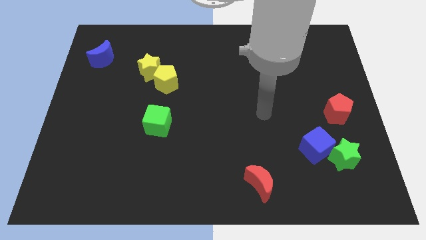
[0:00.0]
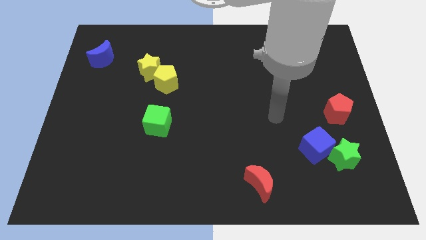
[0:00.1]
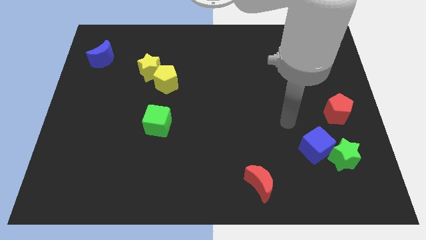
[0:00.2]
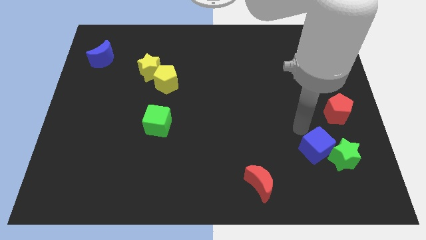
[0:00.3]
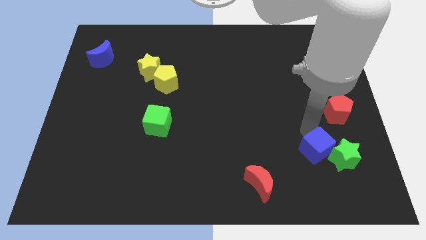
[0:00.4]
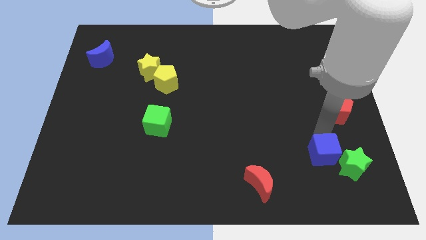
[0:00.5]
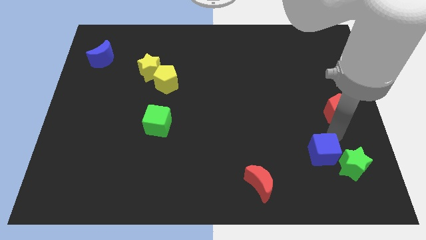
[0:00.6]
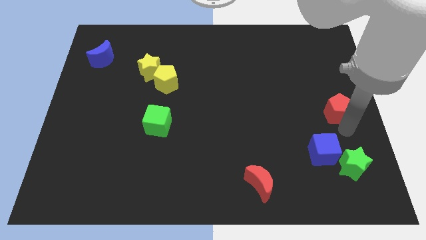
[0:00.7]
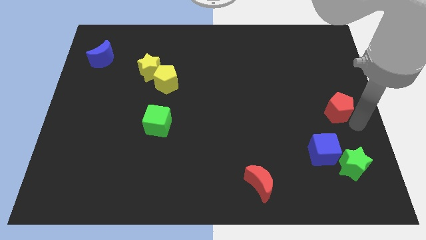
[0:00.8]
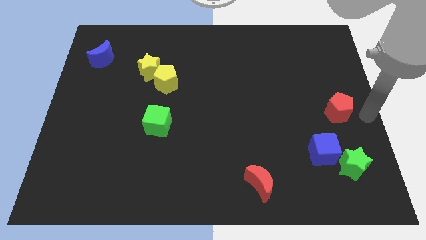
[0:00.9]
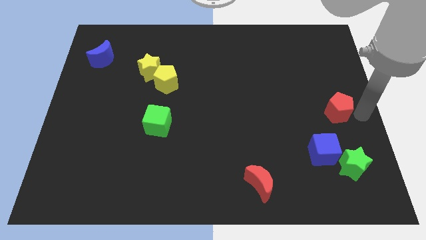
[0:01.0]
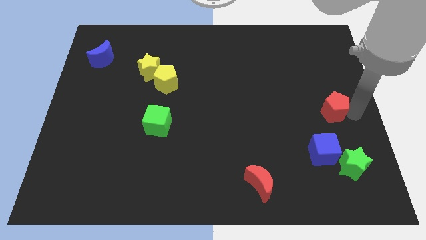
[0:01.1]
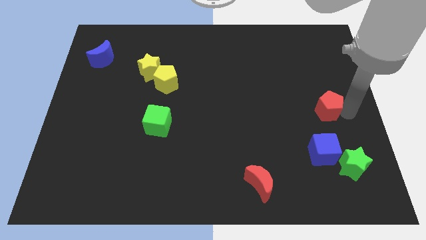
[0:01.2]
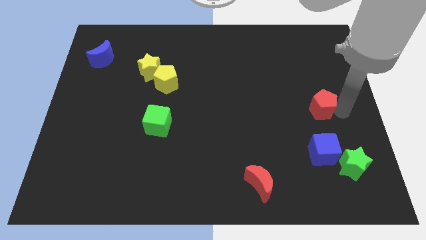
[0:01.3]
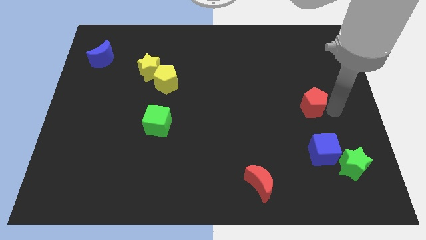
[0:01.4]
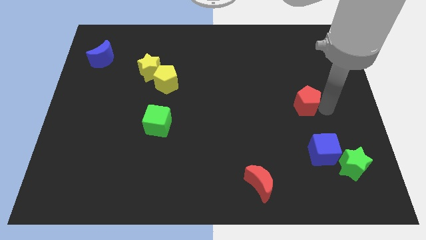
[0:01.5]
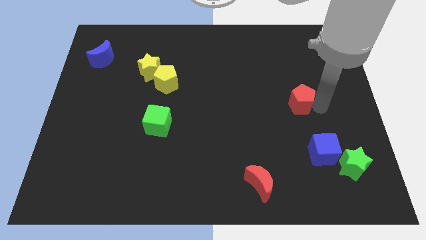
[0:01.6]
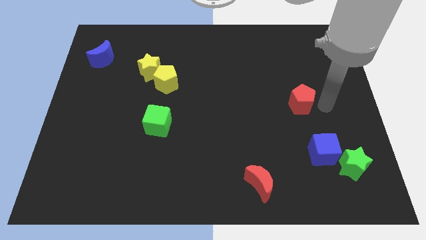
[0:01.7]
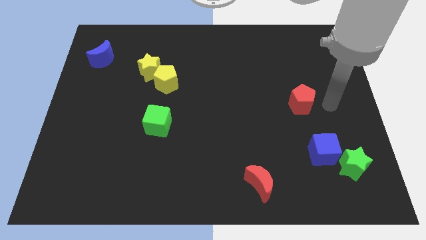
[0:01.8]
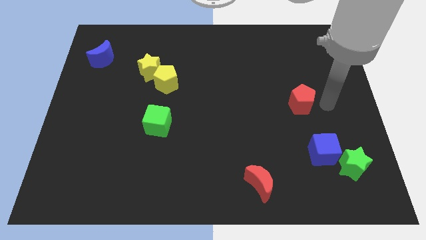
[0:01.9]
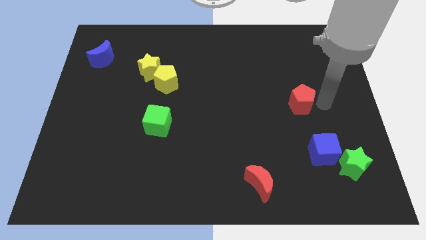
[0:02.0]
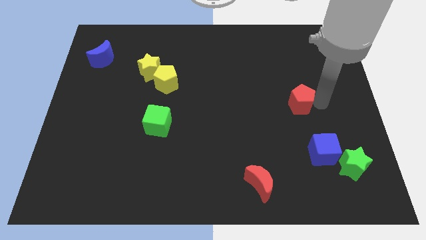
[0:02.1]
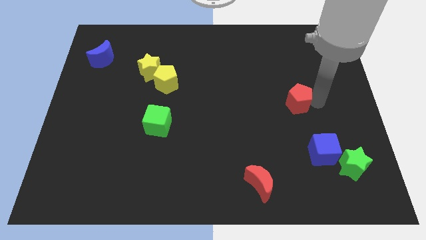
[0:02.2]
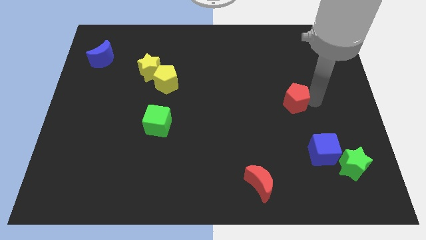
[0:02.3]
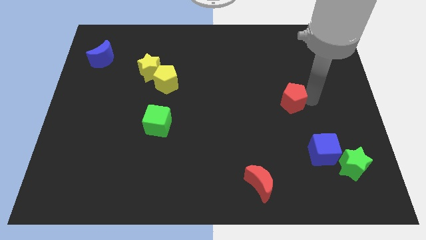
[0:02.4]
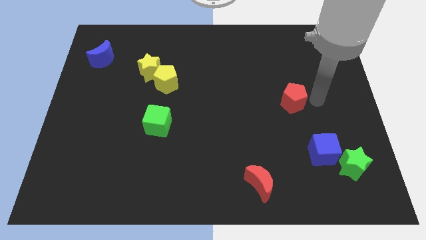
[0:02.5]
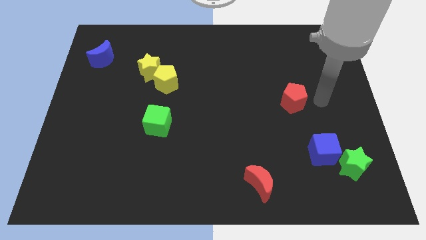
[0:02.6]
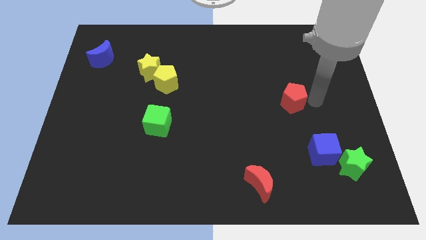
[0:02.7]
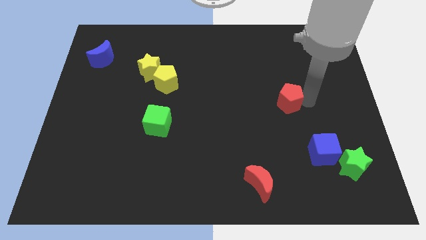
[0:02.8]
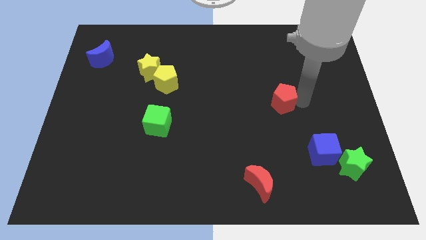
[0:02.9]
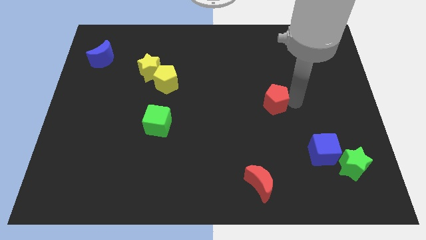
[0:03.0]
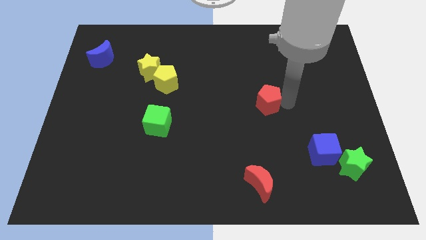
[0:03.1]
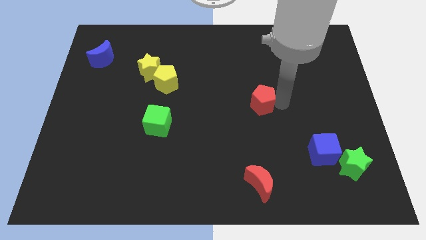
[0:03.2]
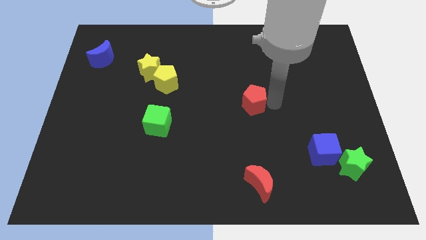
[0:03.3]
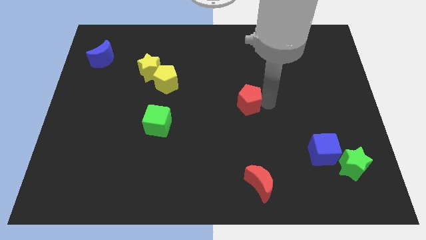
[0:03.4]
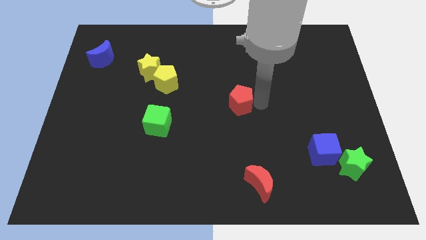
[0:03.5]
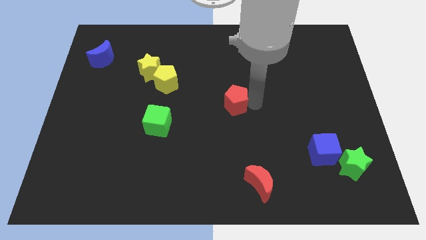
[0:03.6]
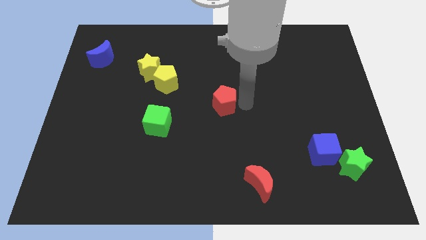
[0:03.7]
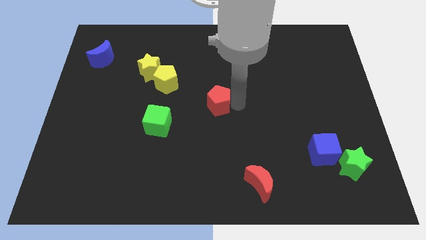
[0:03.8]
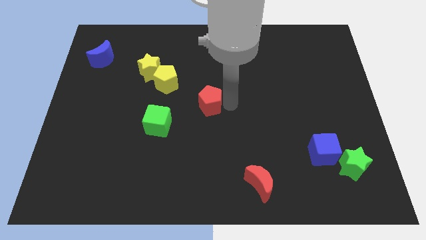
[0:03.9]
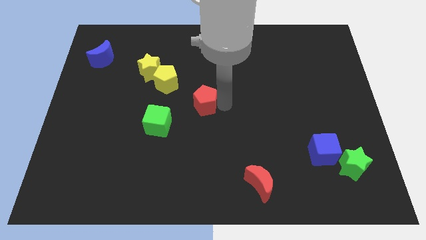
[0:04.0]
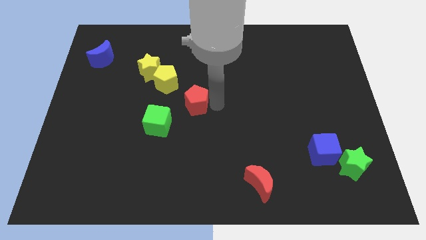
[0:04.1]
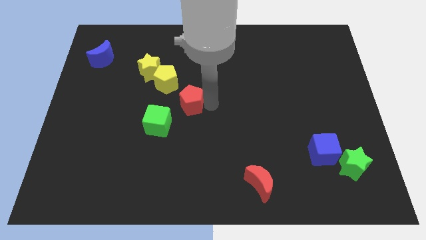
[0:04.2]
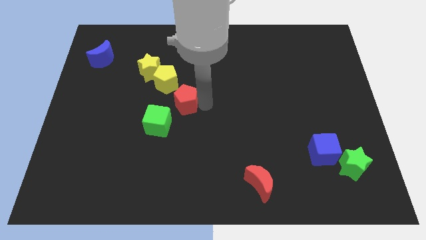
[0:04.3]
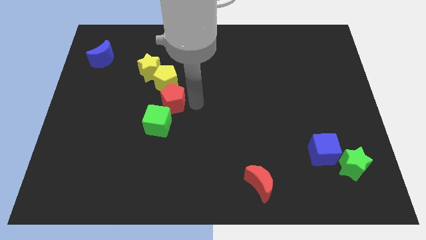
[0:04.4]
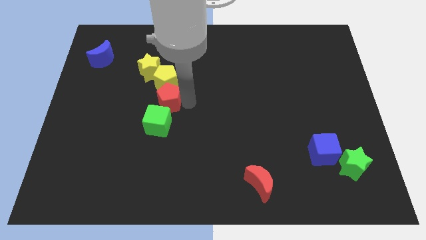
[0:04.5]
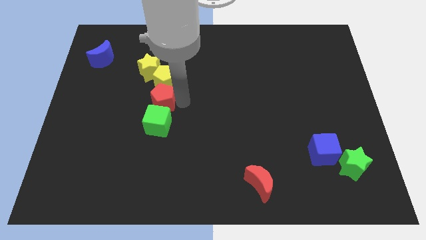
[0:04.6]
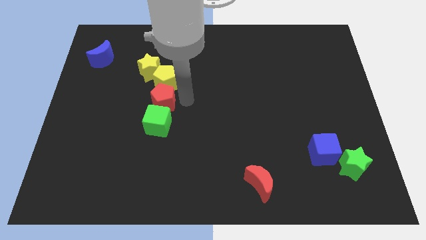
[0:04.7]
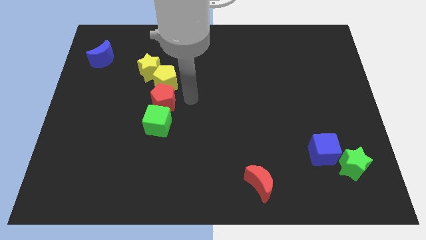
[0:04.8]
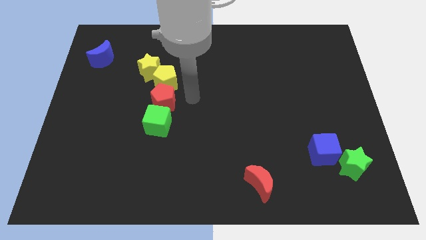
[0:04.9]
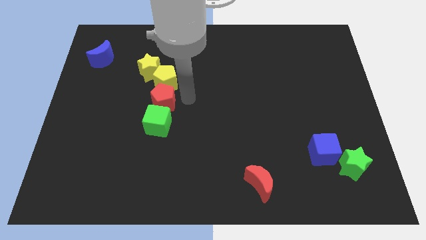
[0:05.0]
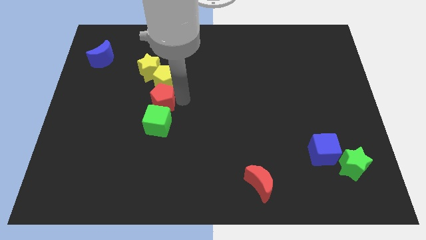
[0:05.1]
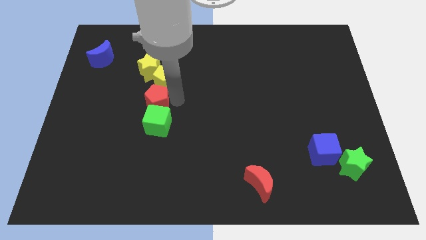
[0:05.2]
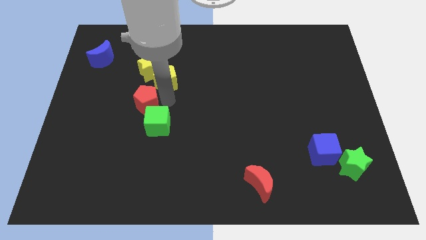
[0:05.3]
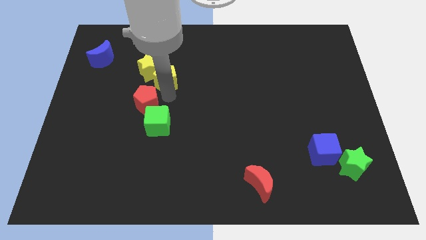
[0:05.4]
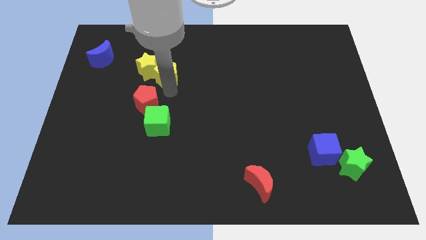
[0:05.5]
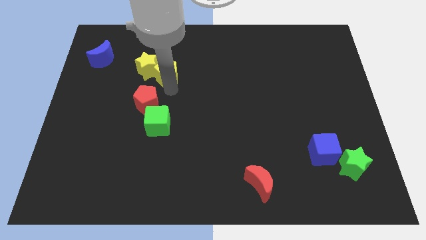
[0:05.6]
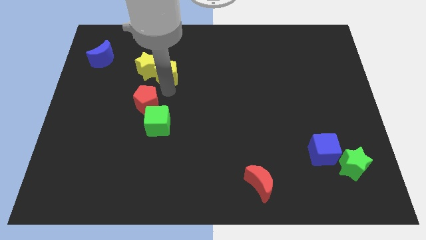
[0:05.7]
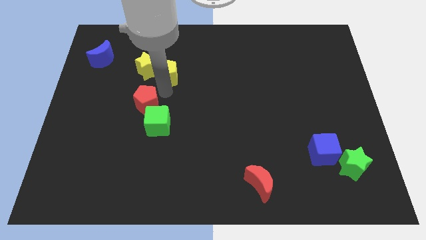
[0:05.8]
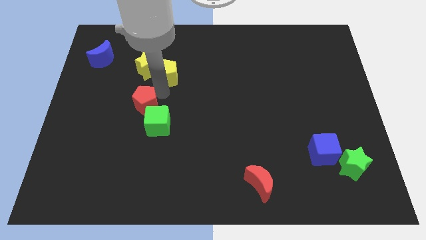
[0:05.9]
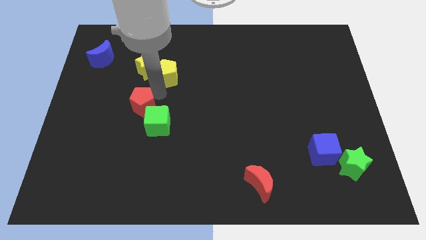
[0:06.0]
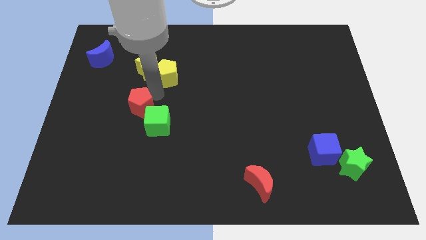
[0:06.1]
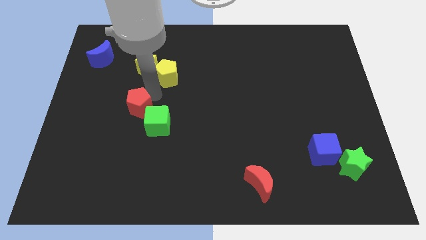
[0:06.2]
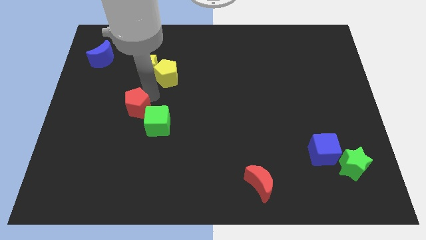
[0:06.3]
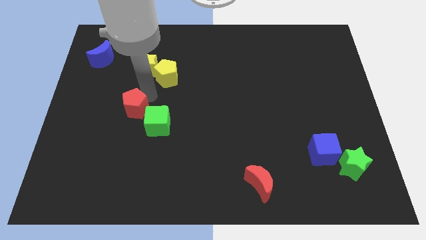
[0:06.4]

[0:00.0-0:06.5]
push the red pentagon to the left side of the green cube

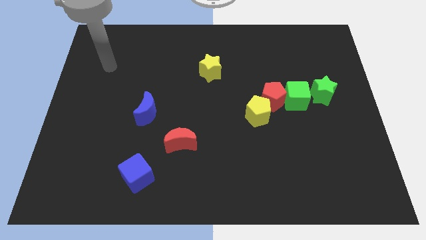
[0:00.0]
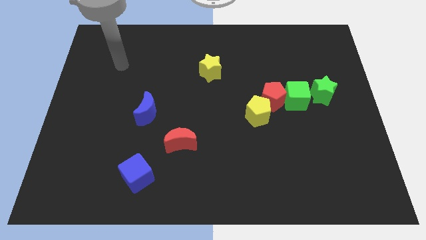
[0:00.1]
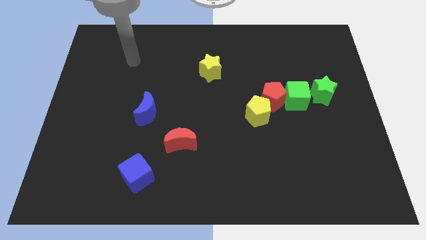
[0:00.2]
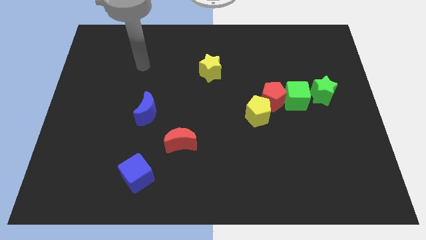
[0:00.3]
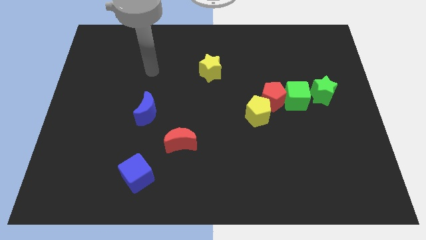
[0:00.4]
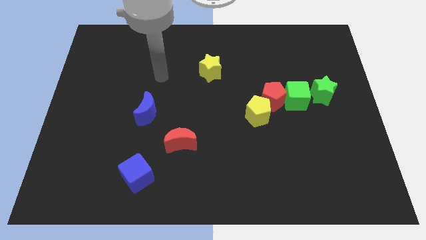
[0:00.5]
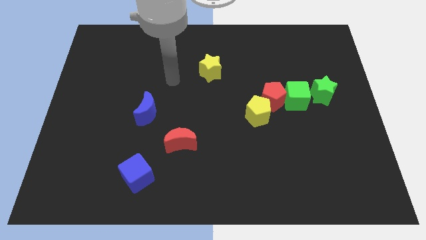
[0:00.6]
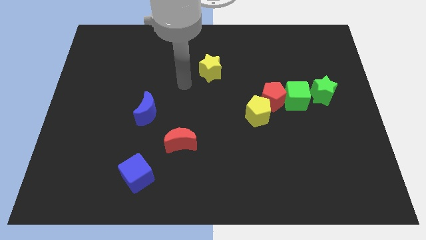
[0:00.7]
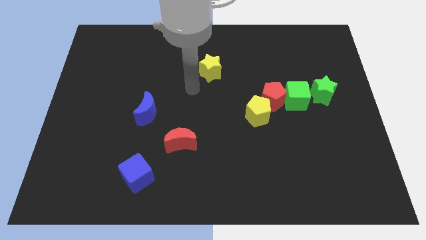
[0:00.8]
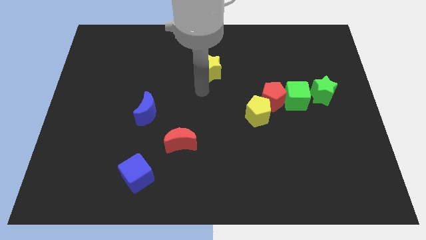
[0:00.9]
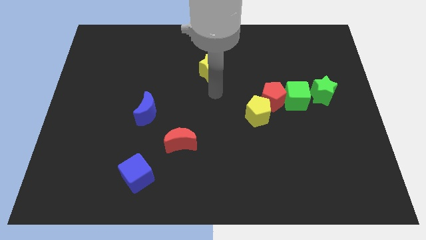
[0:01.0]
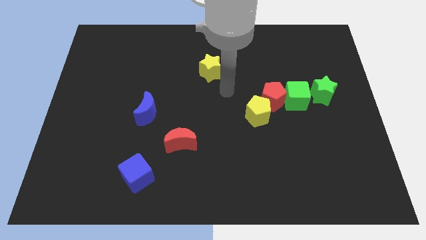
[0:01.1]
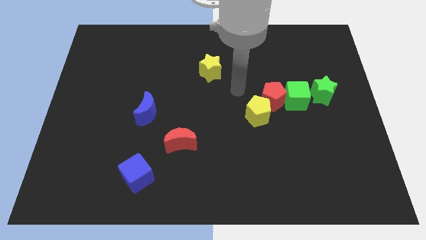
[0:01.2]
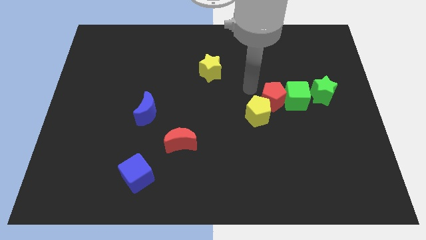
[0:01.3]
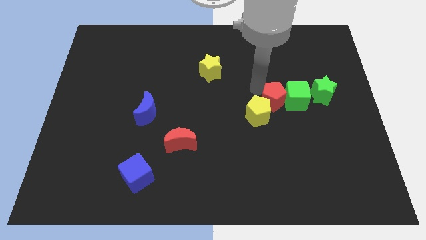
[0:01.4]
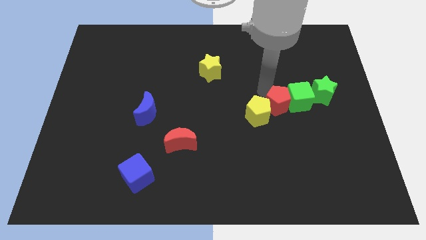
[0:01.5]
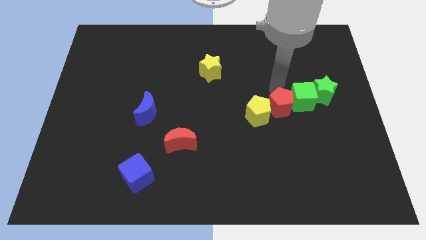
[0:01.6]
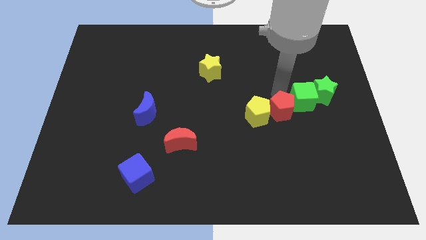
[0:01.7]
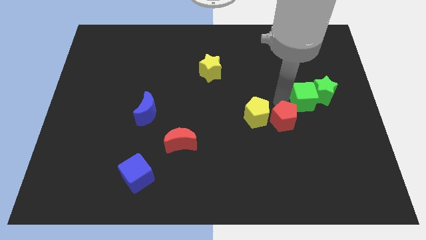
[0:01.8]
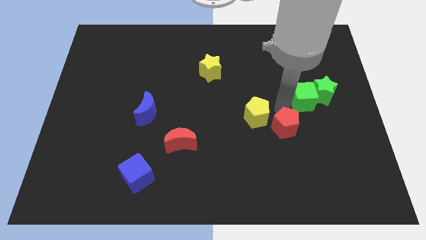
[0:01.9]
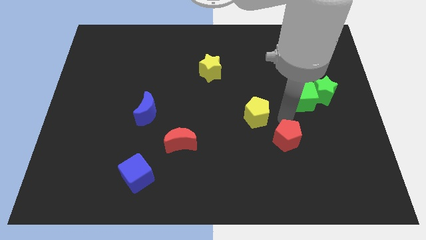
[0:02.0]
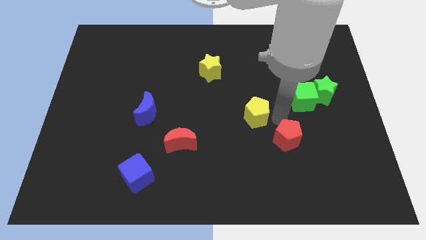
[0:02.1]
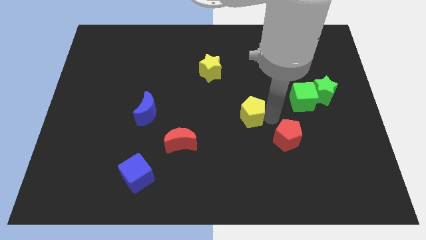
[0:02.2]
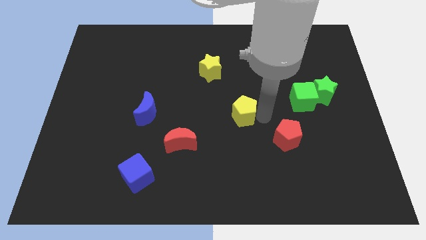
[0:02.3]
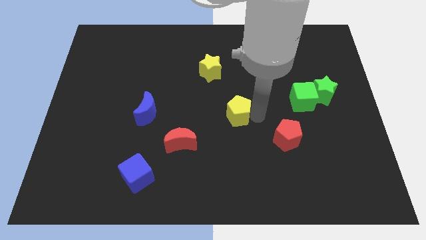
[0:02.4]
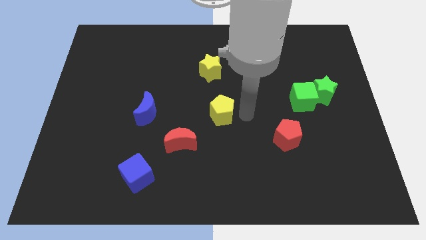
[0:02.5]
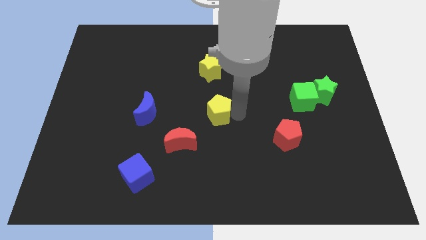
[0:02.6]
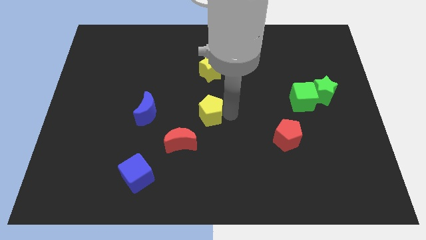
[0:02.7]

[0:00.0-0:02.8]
put the yellow pentagon just right of the blue moon
